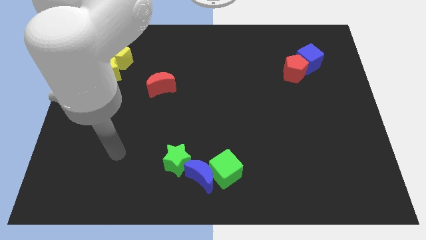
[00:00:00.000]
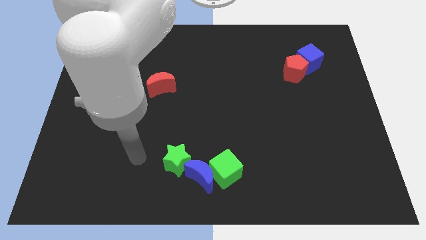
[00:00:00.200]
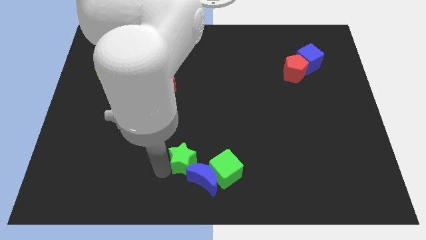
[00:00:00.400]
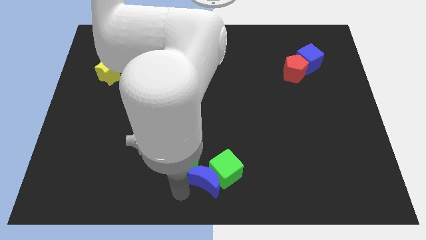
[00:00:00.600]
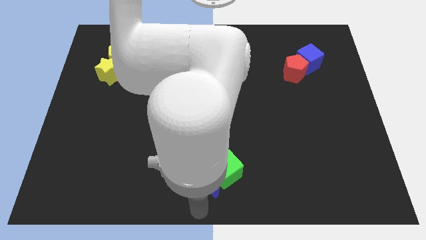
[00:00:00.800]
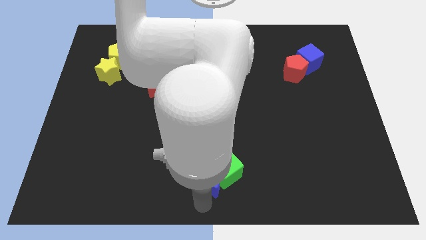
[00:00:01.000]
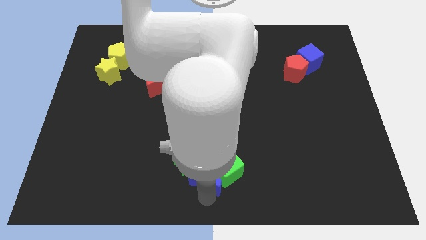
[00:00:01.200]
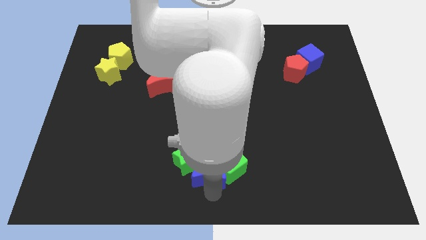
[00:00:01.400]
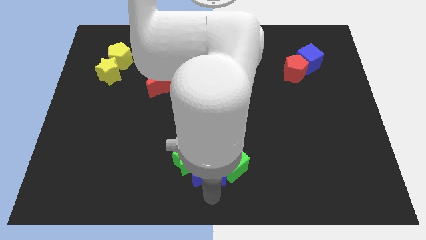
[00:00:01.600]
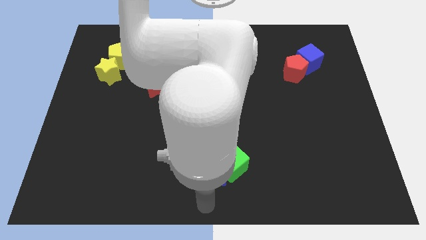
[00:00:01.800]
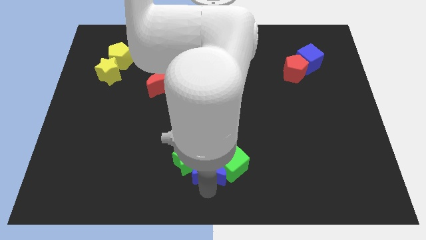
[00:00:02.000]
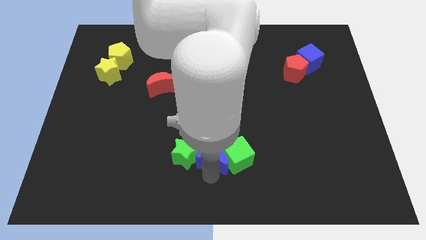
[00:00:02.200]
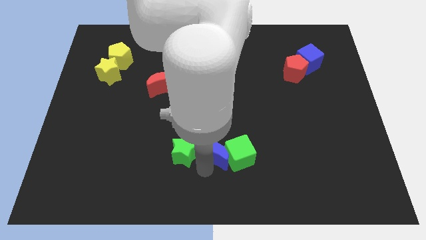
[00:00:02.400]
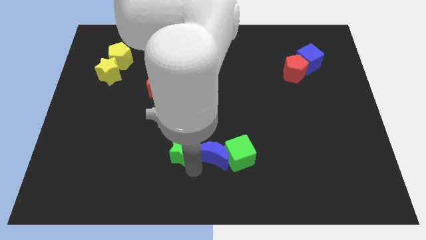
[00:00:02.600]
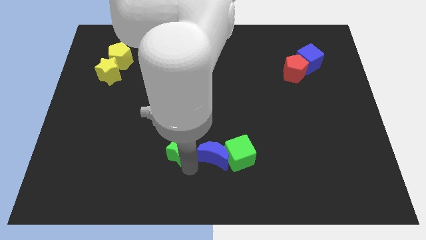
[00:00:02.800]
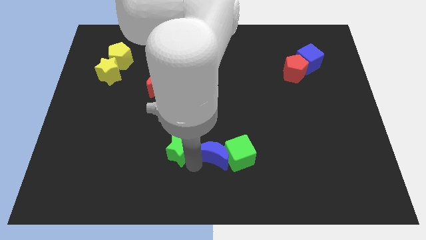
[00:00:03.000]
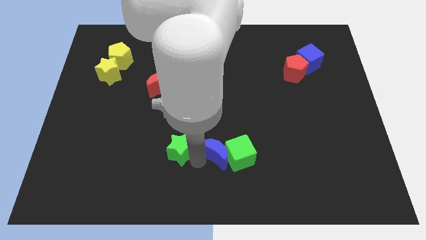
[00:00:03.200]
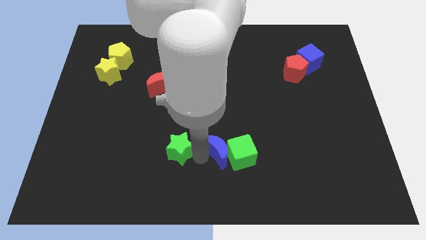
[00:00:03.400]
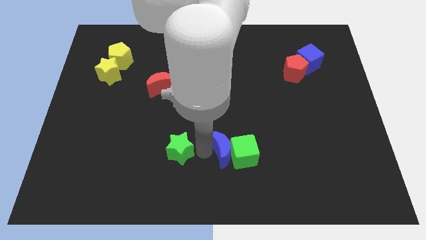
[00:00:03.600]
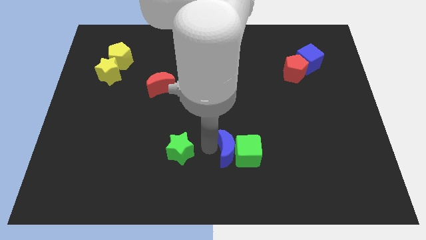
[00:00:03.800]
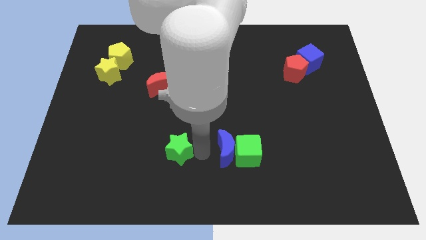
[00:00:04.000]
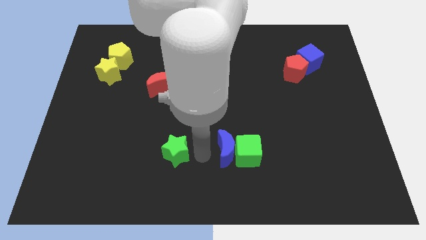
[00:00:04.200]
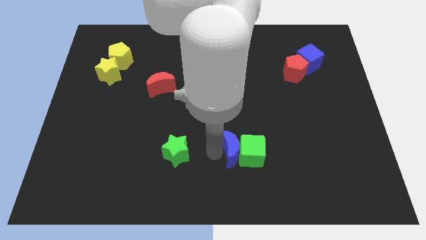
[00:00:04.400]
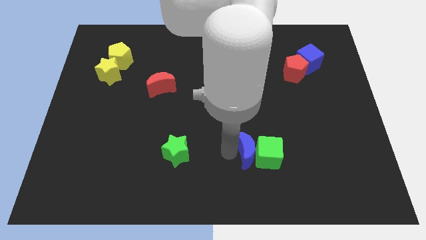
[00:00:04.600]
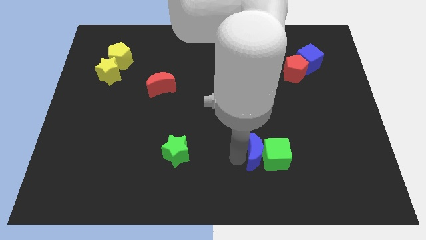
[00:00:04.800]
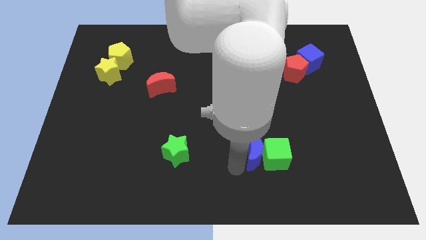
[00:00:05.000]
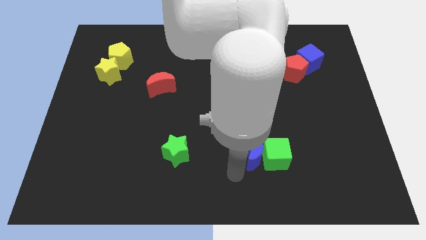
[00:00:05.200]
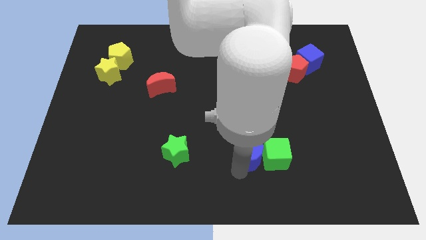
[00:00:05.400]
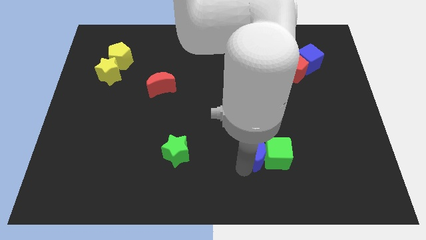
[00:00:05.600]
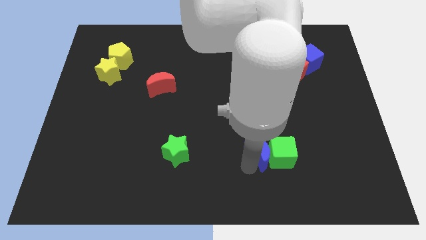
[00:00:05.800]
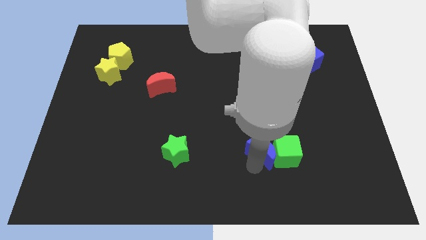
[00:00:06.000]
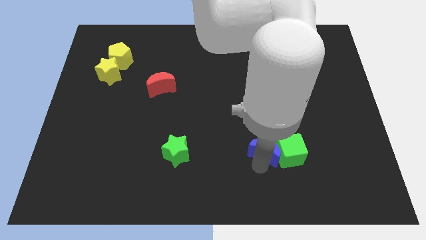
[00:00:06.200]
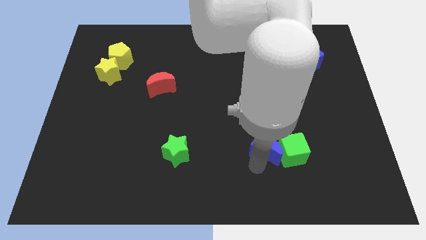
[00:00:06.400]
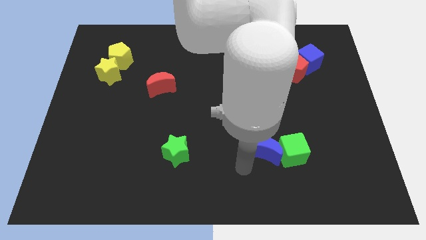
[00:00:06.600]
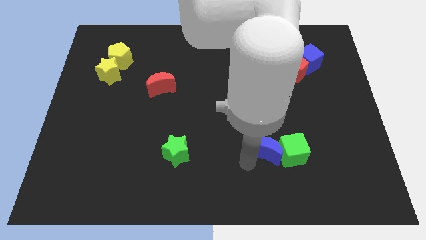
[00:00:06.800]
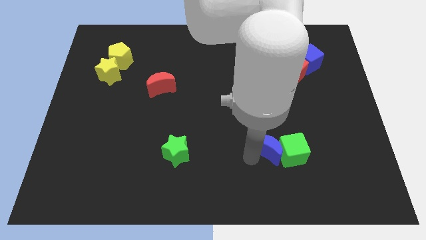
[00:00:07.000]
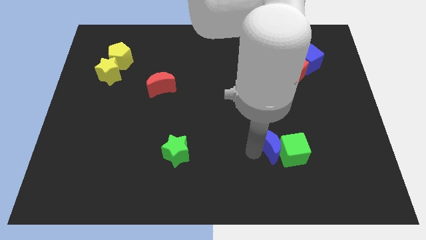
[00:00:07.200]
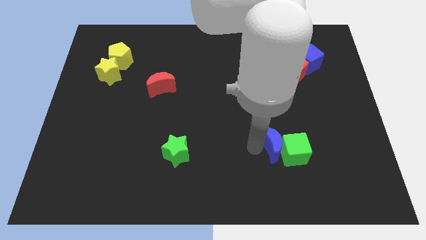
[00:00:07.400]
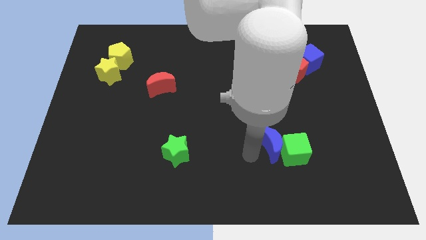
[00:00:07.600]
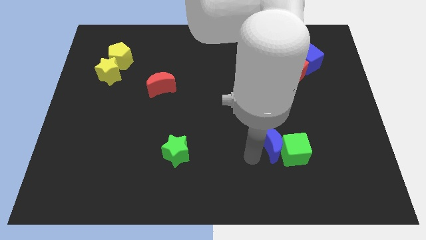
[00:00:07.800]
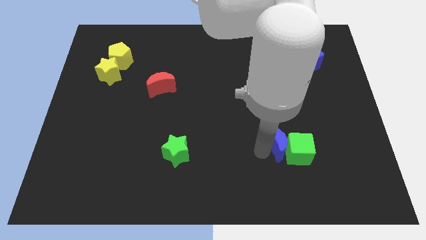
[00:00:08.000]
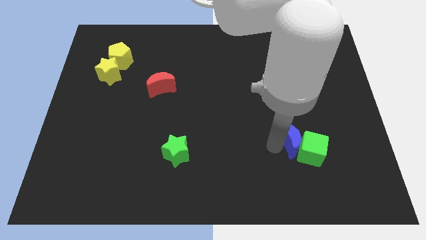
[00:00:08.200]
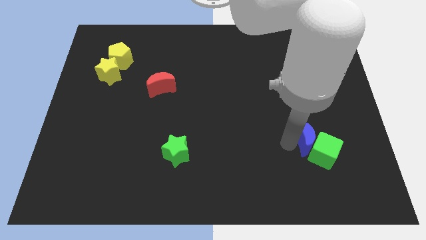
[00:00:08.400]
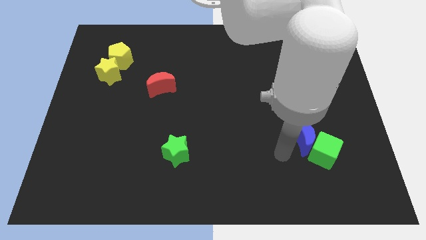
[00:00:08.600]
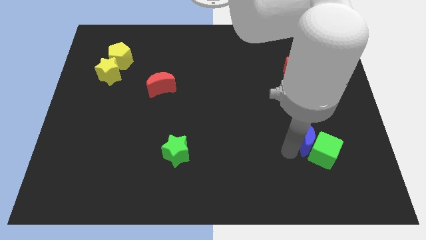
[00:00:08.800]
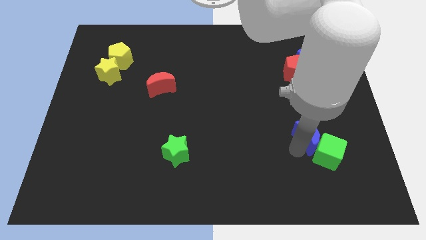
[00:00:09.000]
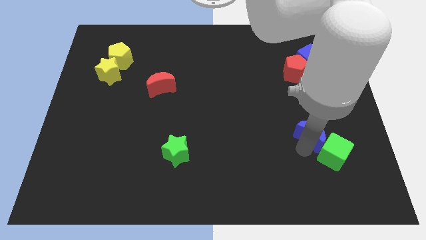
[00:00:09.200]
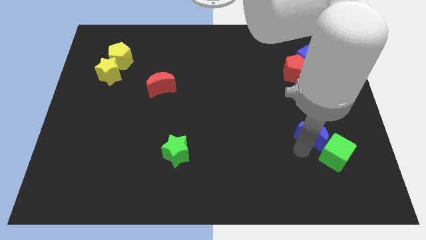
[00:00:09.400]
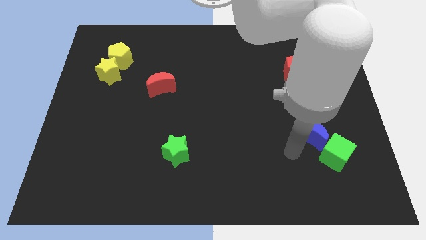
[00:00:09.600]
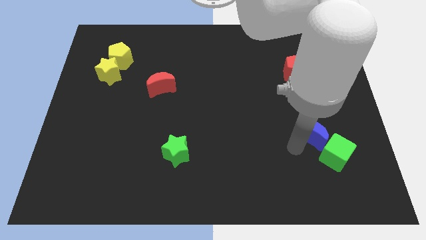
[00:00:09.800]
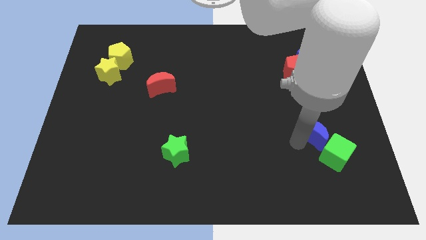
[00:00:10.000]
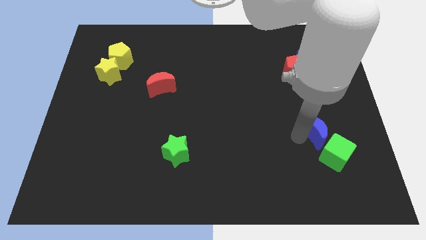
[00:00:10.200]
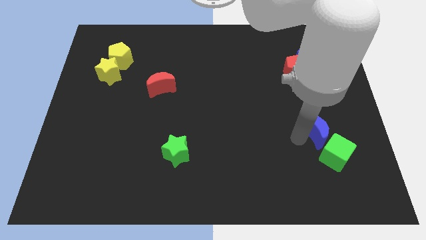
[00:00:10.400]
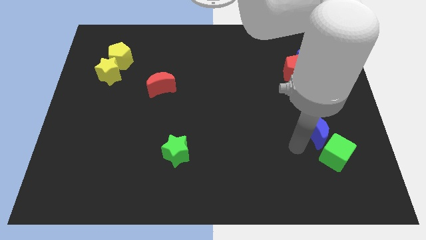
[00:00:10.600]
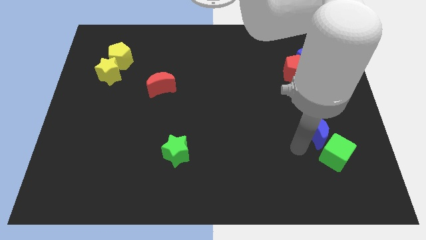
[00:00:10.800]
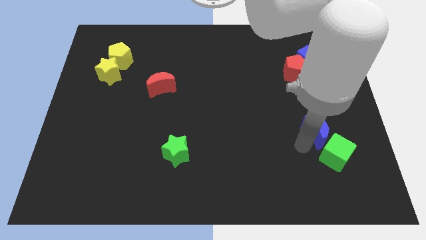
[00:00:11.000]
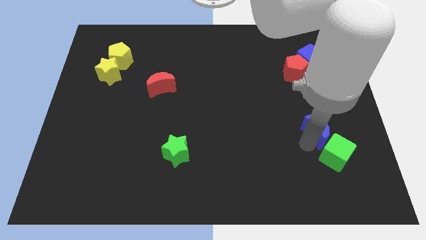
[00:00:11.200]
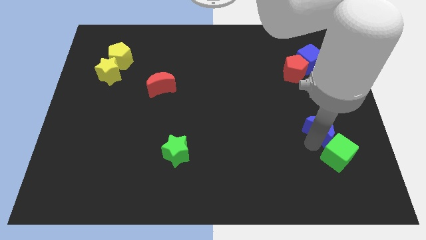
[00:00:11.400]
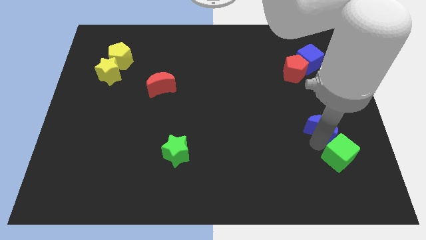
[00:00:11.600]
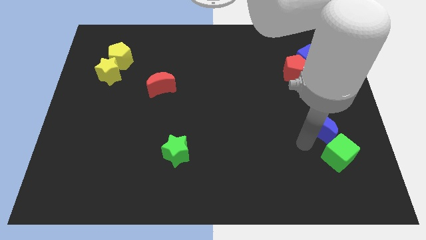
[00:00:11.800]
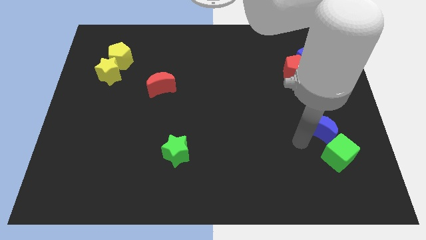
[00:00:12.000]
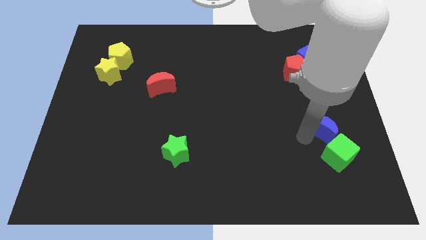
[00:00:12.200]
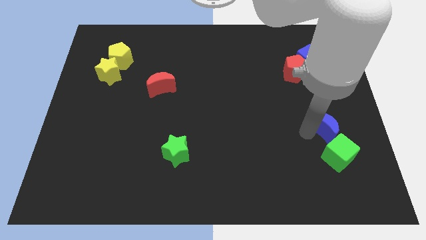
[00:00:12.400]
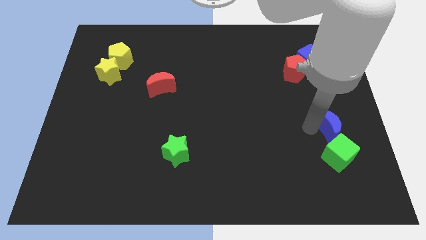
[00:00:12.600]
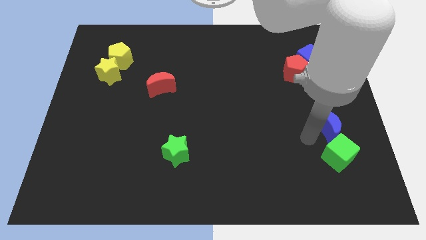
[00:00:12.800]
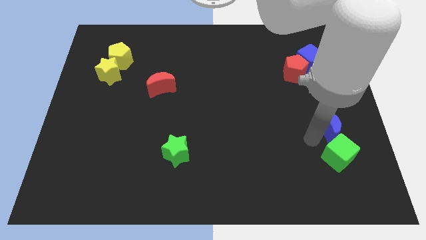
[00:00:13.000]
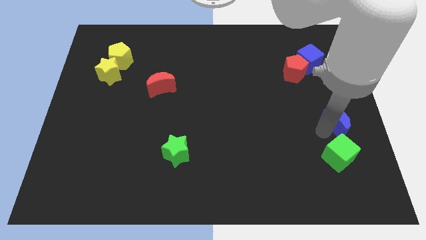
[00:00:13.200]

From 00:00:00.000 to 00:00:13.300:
push the blue moon to the center right
